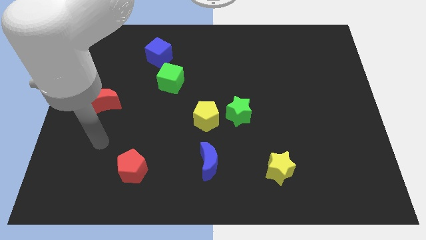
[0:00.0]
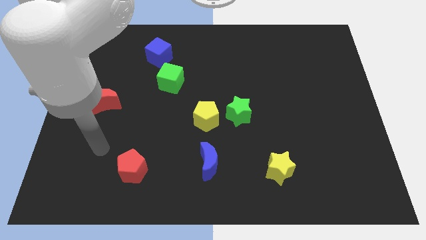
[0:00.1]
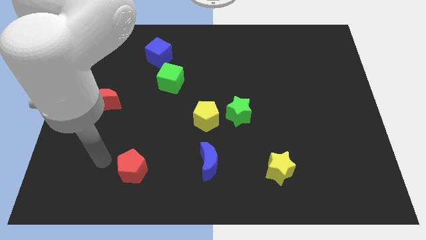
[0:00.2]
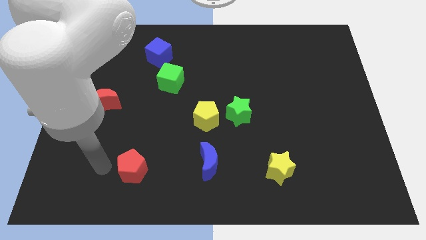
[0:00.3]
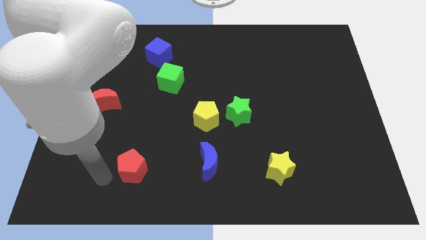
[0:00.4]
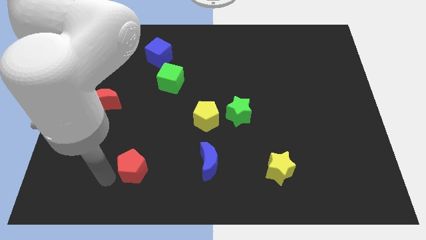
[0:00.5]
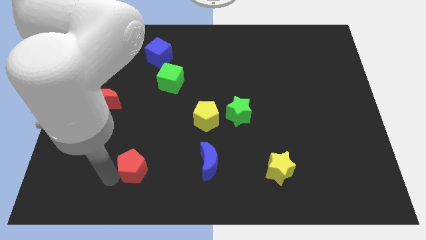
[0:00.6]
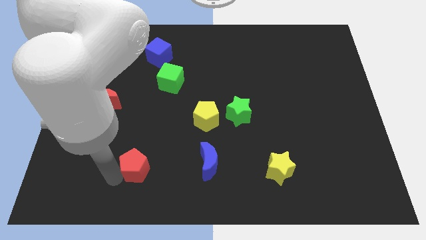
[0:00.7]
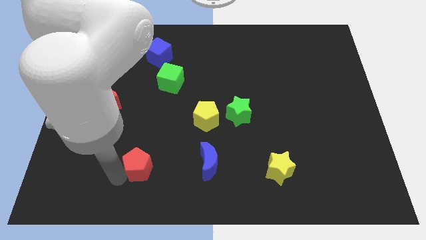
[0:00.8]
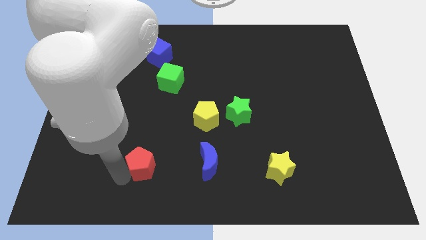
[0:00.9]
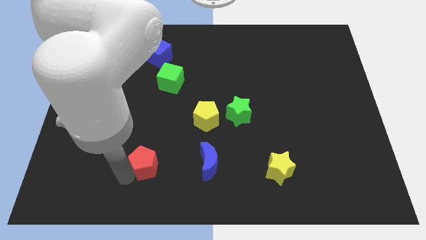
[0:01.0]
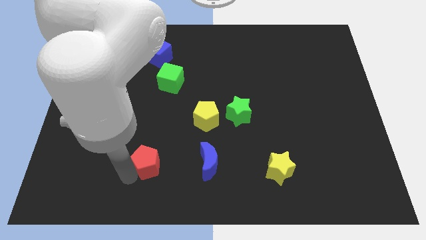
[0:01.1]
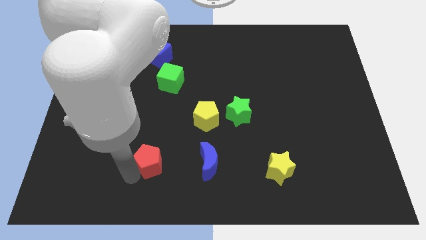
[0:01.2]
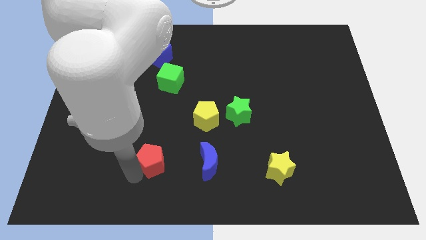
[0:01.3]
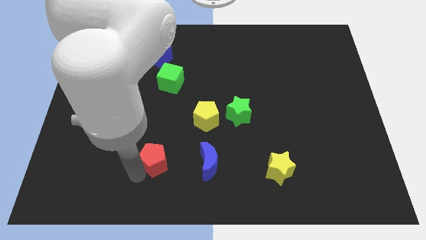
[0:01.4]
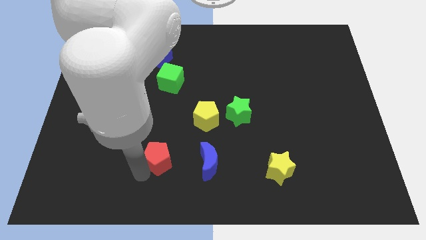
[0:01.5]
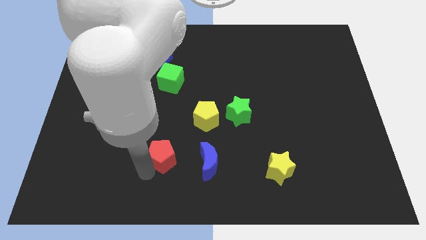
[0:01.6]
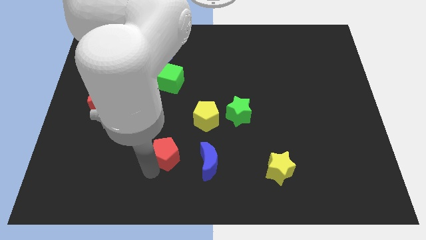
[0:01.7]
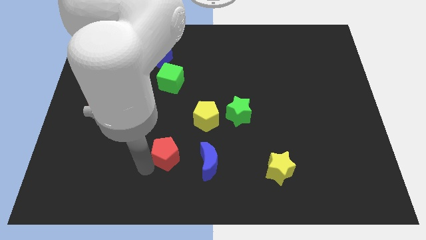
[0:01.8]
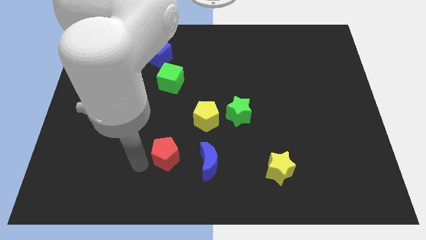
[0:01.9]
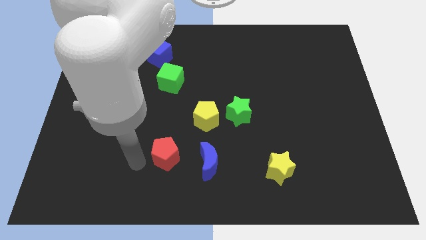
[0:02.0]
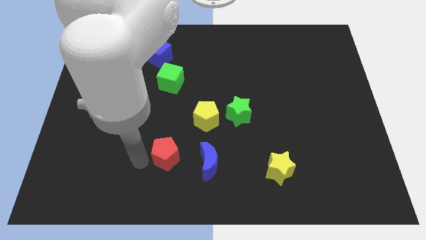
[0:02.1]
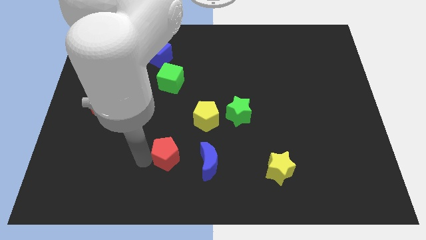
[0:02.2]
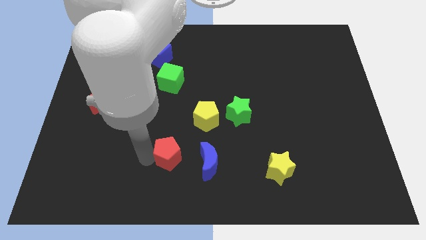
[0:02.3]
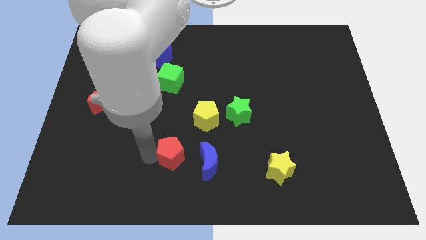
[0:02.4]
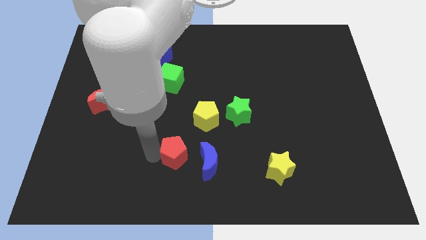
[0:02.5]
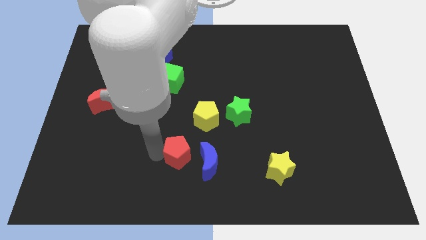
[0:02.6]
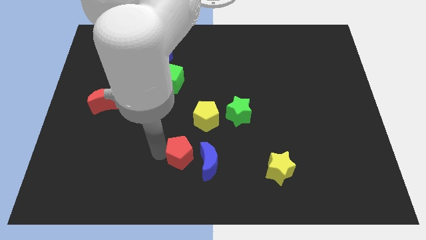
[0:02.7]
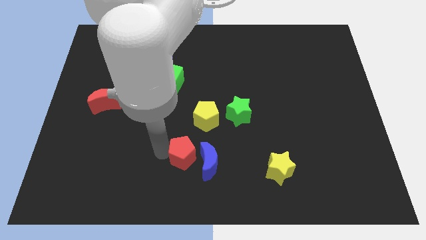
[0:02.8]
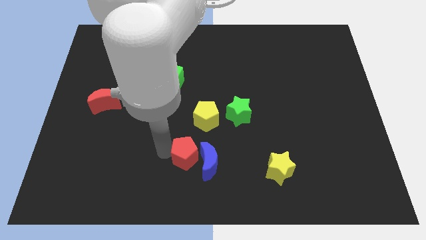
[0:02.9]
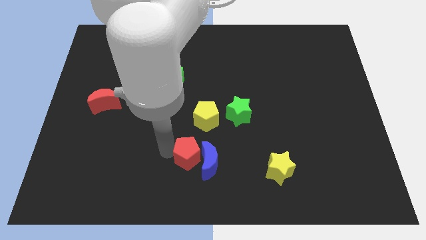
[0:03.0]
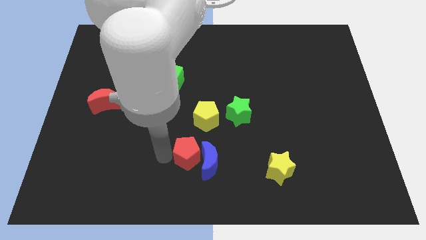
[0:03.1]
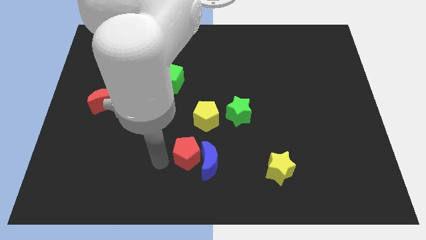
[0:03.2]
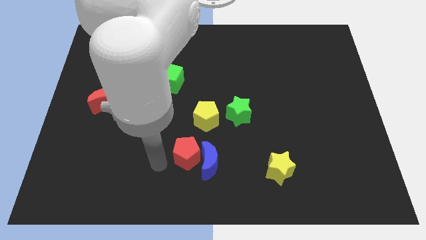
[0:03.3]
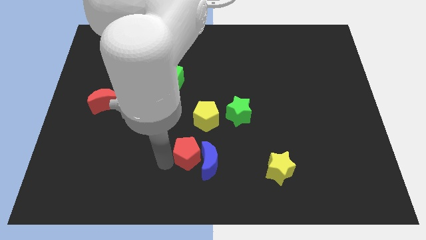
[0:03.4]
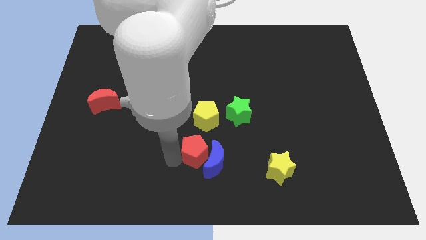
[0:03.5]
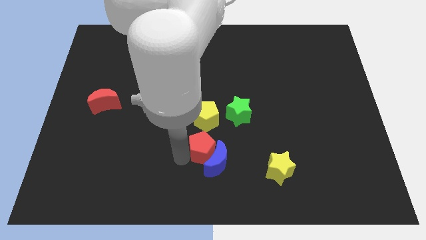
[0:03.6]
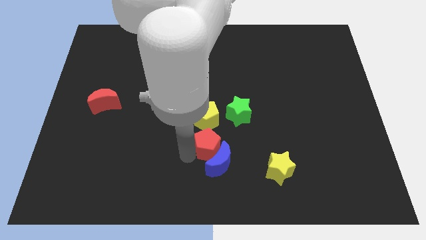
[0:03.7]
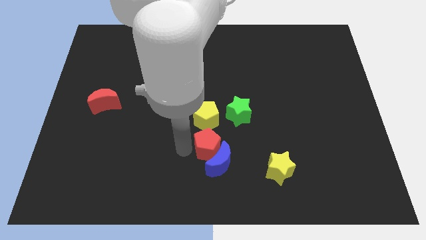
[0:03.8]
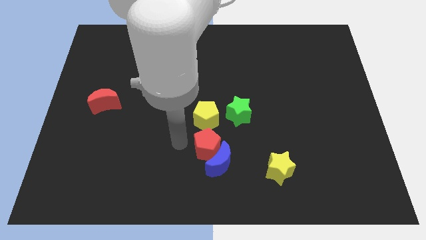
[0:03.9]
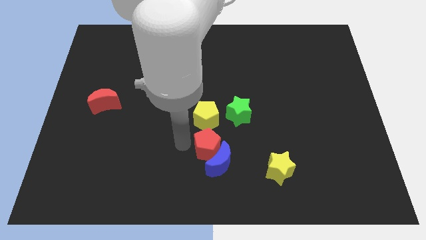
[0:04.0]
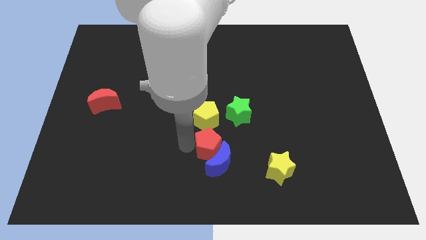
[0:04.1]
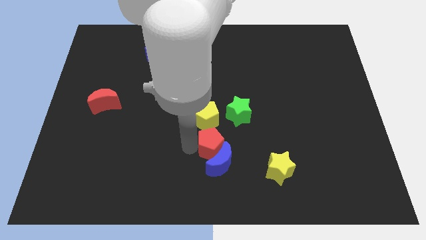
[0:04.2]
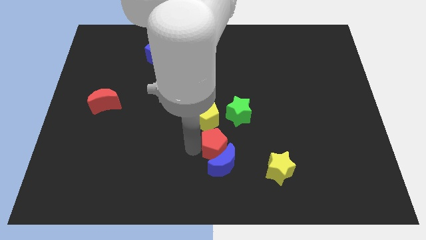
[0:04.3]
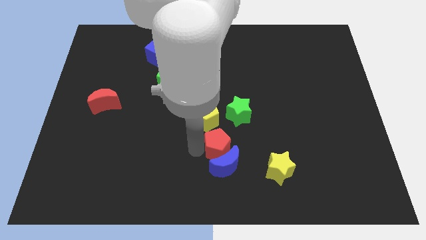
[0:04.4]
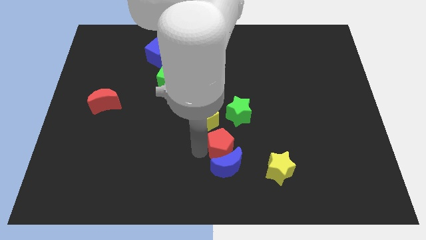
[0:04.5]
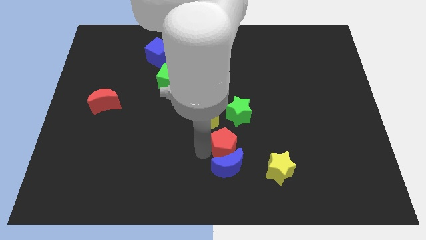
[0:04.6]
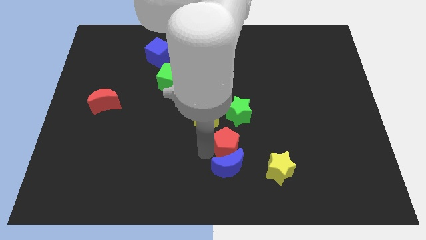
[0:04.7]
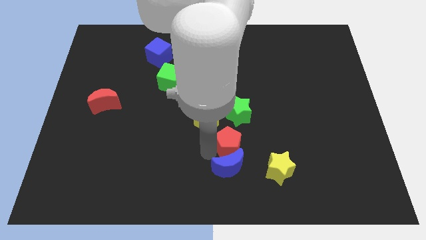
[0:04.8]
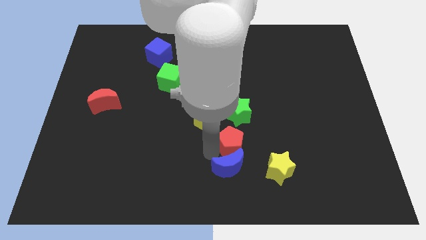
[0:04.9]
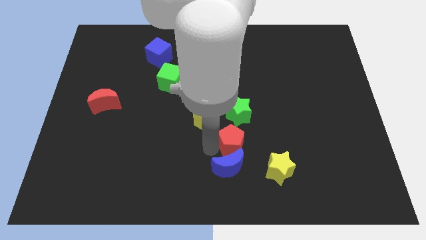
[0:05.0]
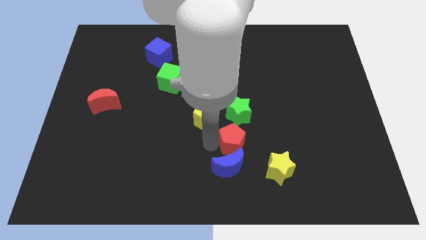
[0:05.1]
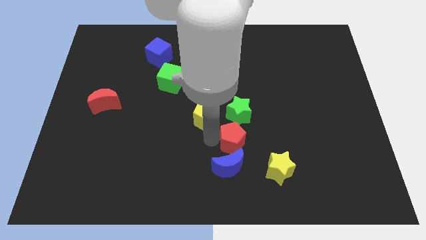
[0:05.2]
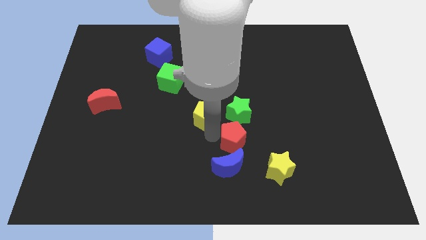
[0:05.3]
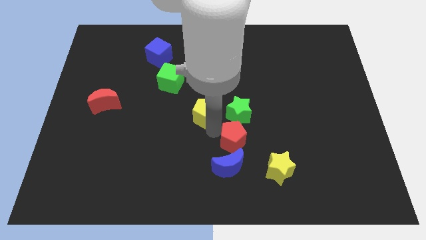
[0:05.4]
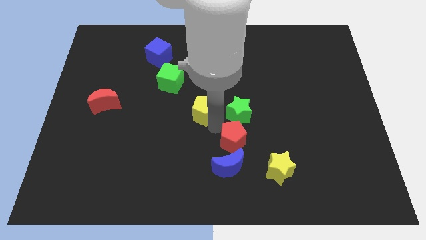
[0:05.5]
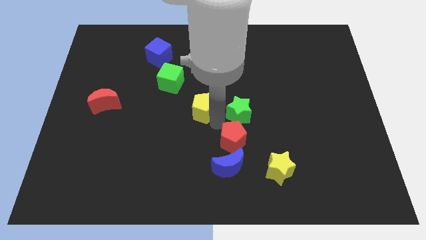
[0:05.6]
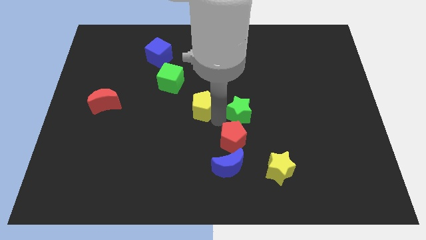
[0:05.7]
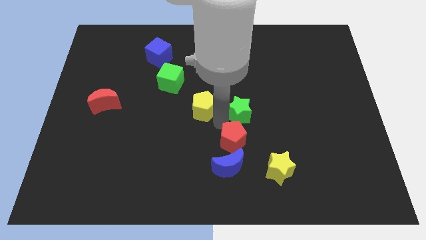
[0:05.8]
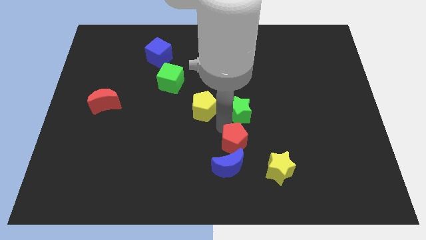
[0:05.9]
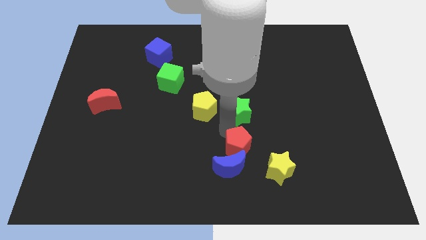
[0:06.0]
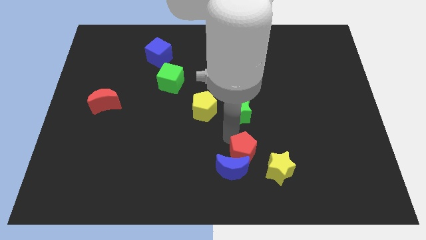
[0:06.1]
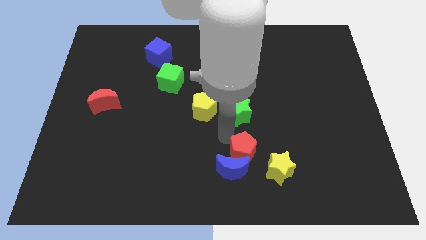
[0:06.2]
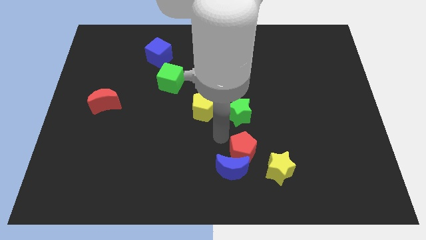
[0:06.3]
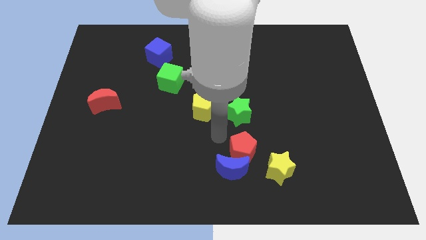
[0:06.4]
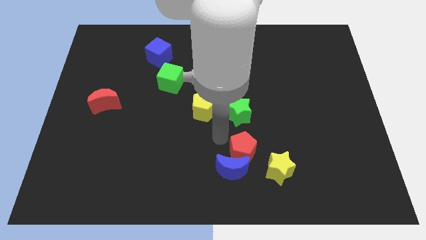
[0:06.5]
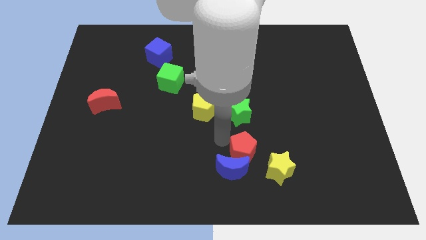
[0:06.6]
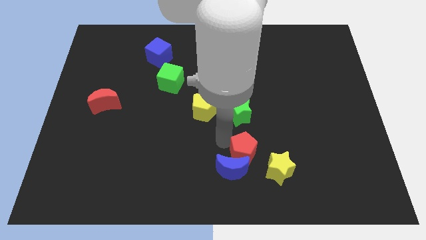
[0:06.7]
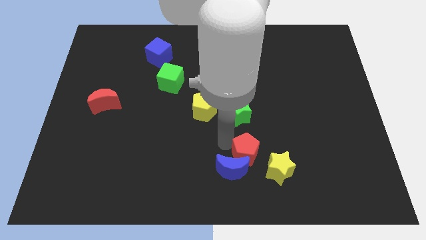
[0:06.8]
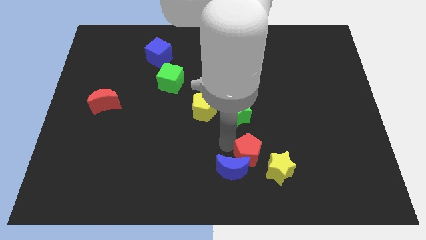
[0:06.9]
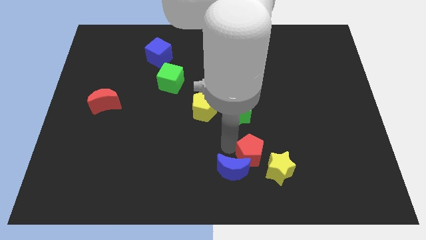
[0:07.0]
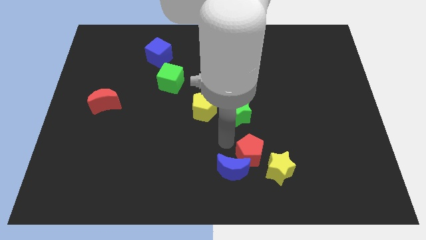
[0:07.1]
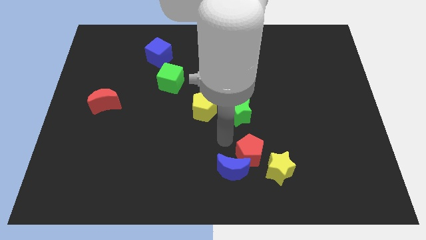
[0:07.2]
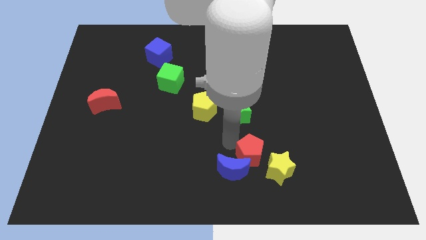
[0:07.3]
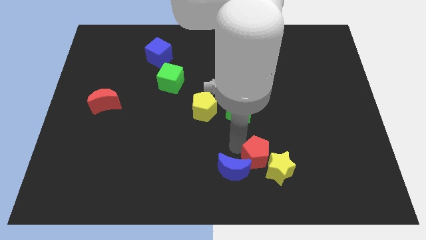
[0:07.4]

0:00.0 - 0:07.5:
put the red pentagon next to the yellow star
